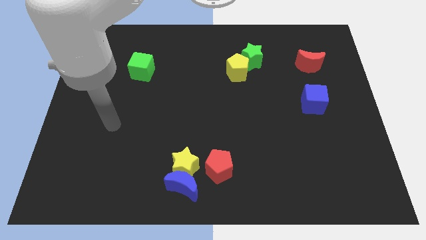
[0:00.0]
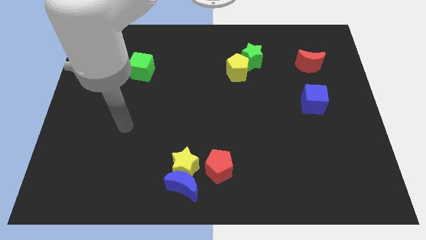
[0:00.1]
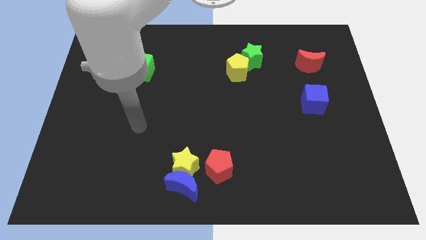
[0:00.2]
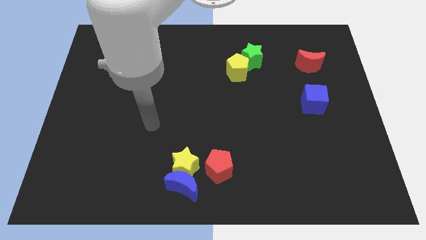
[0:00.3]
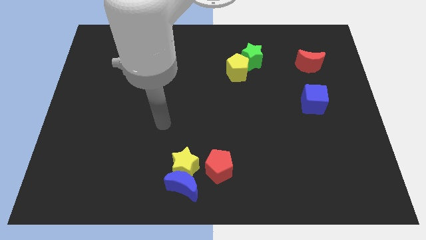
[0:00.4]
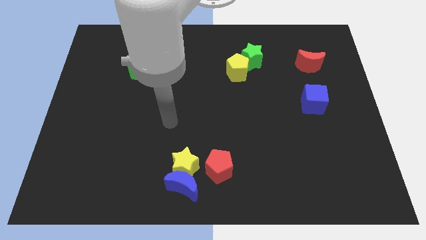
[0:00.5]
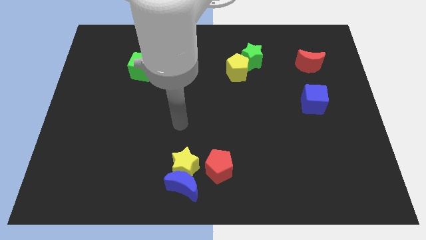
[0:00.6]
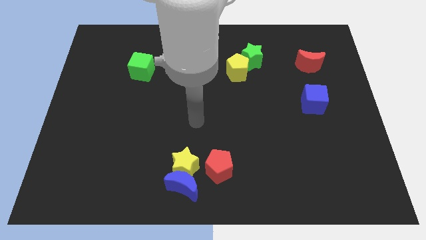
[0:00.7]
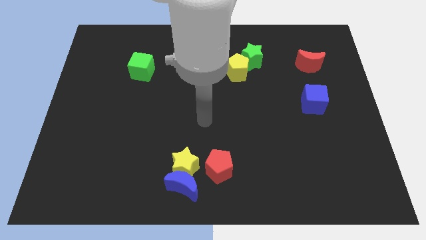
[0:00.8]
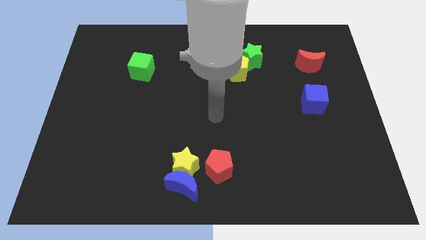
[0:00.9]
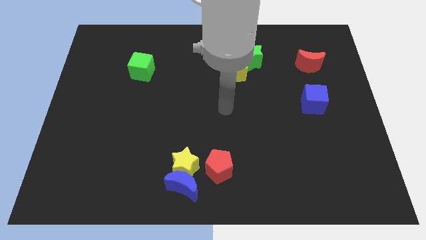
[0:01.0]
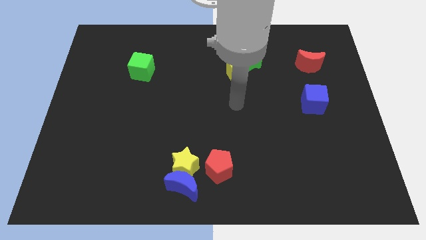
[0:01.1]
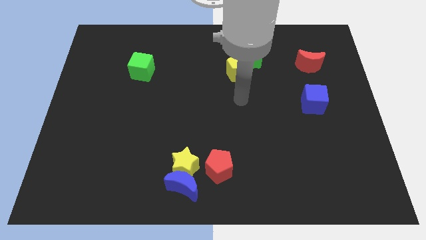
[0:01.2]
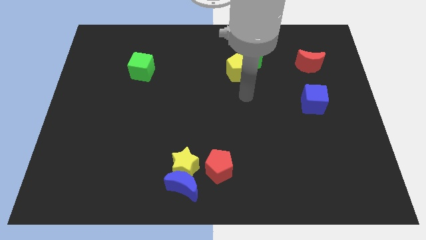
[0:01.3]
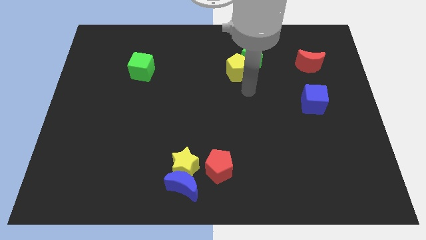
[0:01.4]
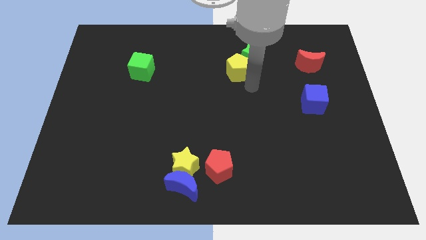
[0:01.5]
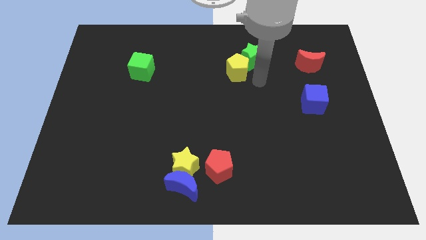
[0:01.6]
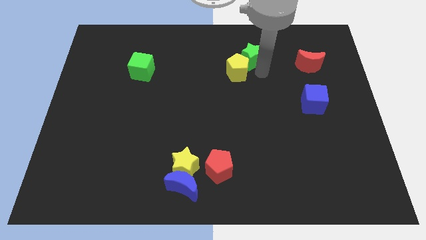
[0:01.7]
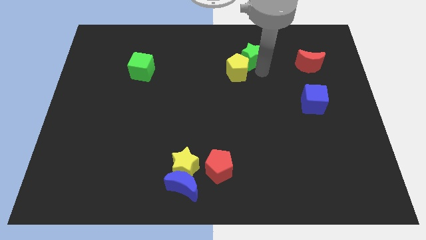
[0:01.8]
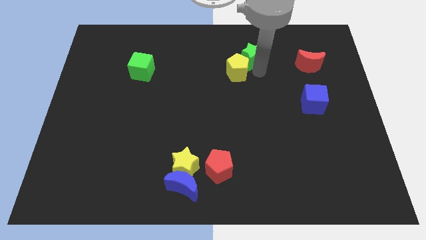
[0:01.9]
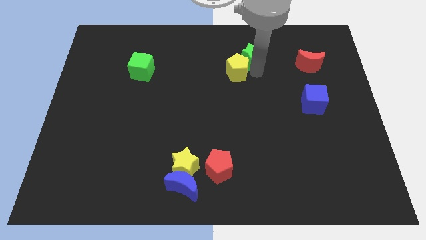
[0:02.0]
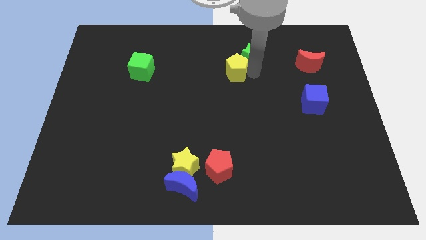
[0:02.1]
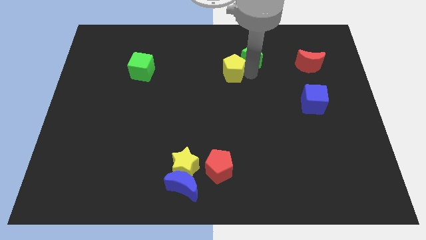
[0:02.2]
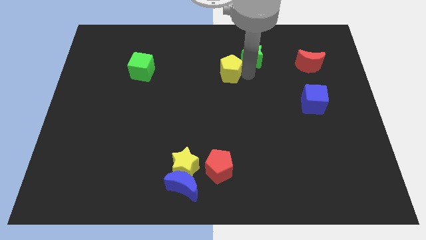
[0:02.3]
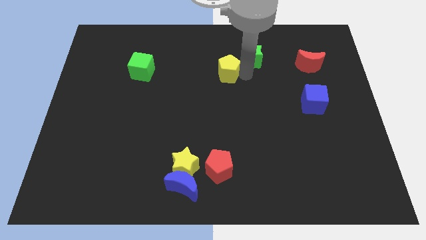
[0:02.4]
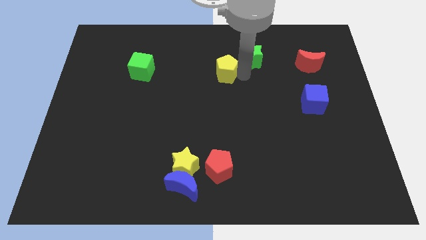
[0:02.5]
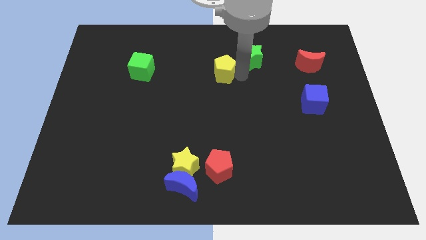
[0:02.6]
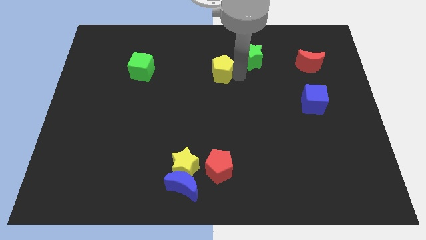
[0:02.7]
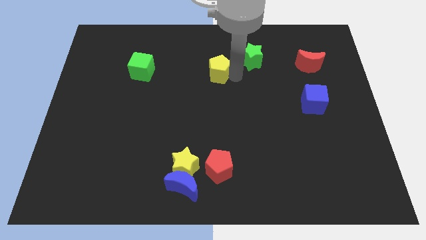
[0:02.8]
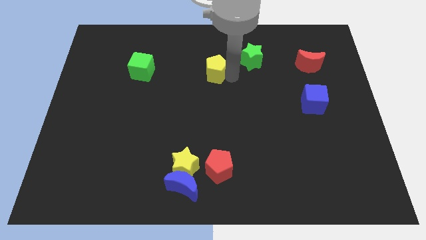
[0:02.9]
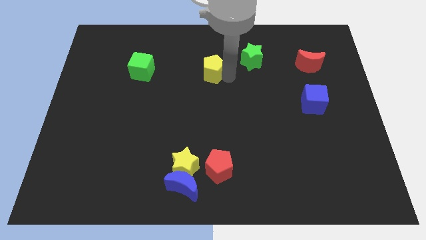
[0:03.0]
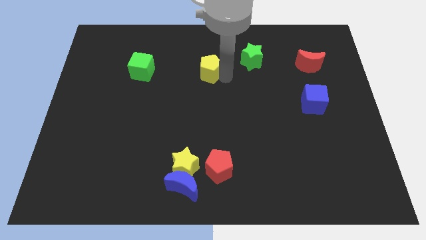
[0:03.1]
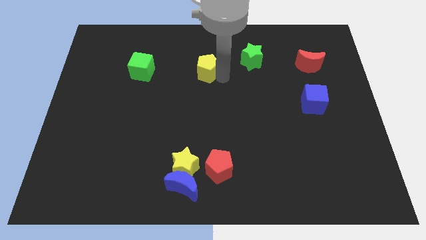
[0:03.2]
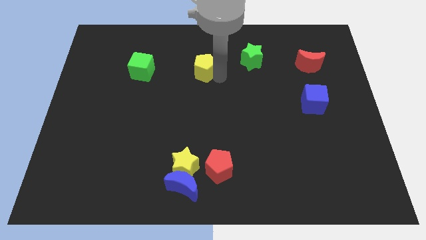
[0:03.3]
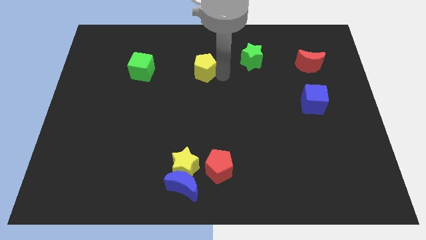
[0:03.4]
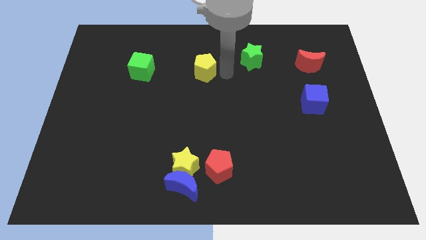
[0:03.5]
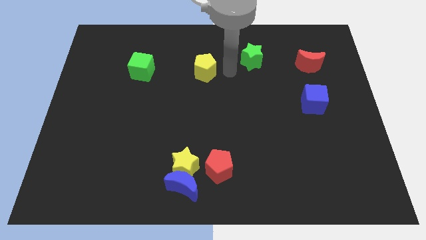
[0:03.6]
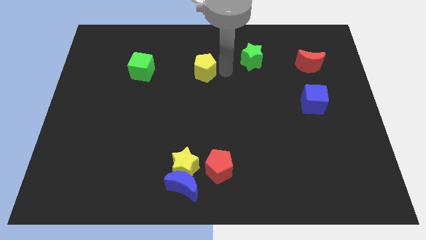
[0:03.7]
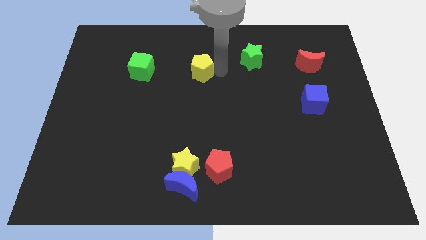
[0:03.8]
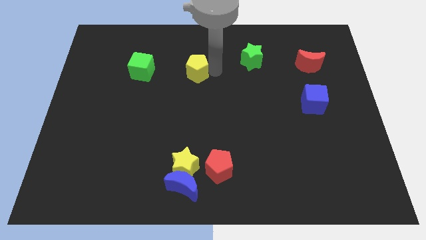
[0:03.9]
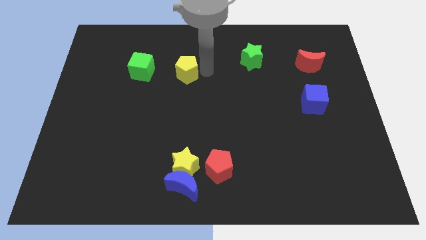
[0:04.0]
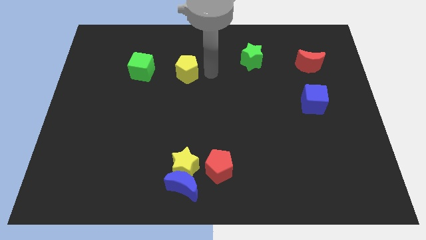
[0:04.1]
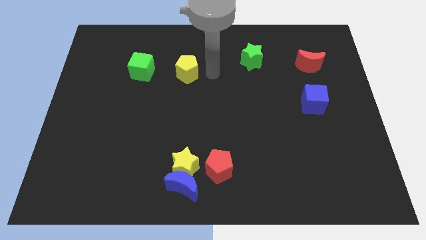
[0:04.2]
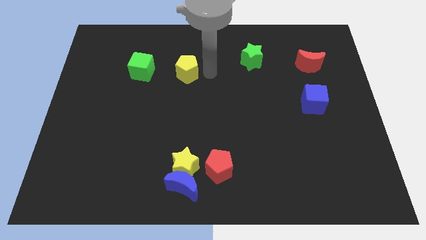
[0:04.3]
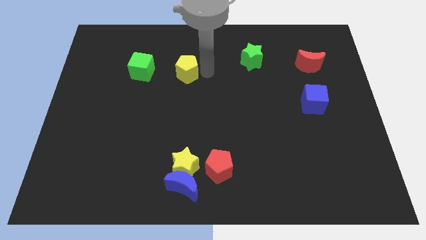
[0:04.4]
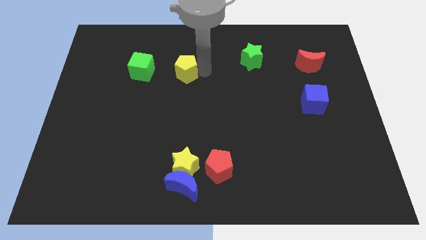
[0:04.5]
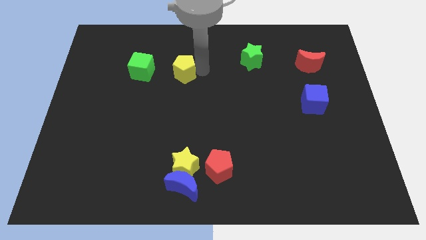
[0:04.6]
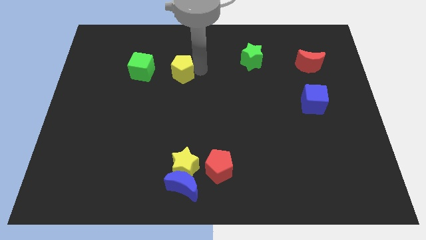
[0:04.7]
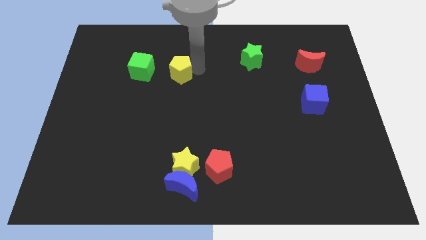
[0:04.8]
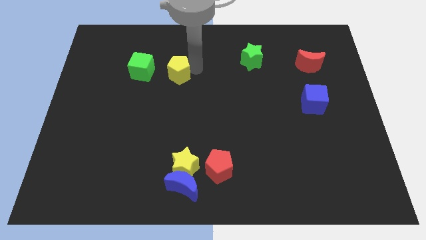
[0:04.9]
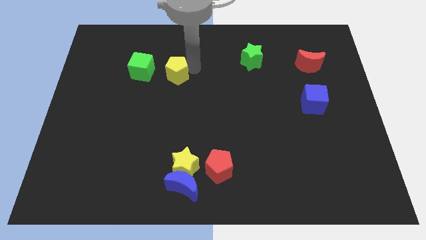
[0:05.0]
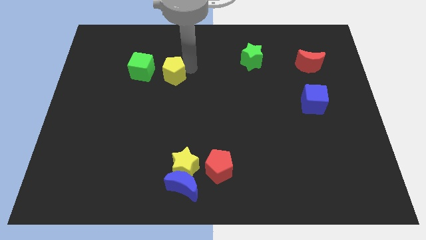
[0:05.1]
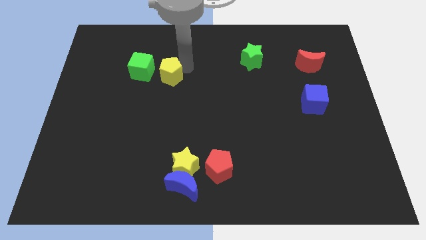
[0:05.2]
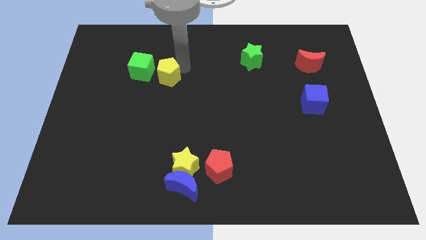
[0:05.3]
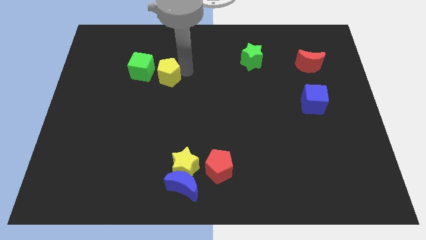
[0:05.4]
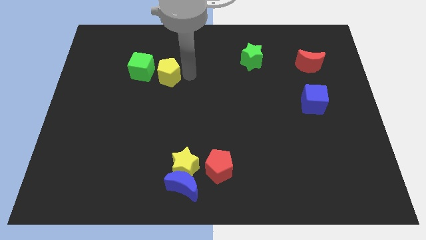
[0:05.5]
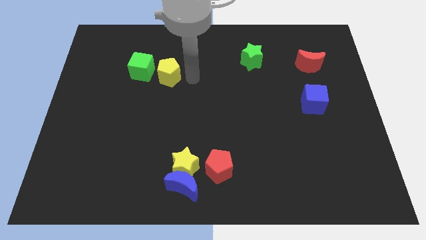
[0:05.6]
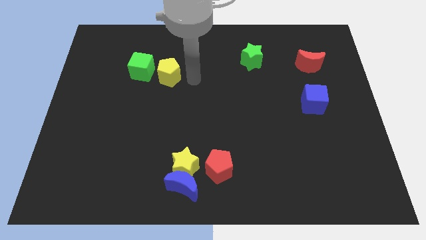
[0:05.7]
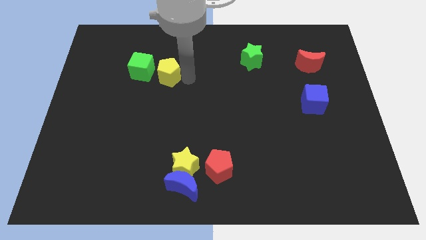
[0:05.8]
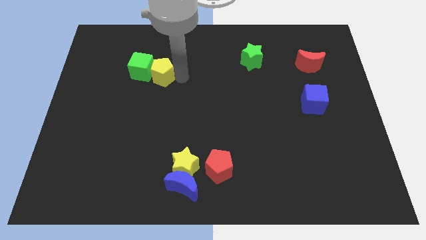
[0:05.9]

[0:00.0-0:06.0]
move the yellow pentagon to the green cube

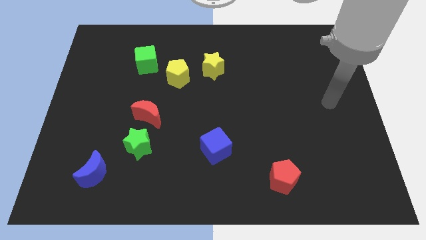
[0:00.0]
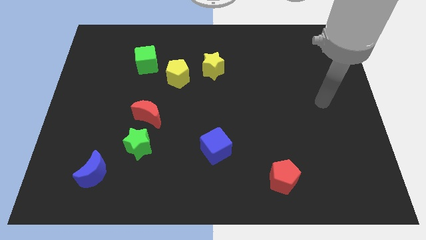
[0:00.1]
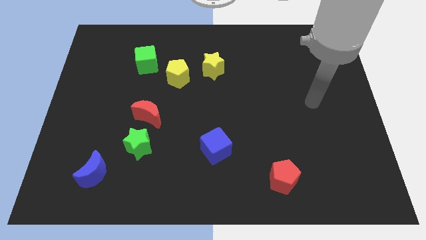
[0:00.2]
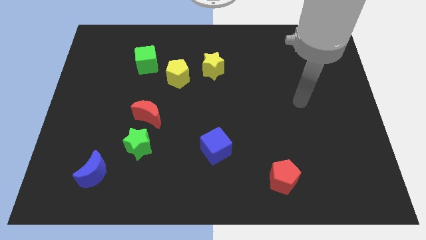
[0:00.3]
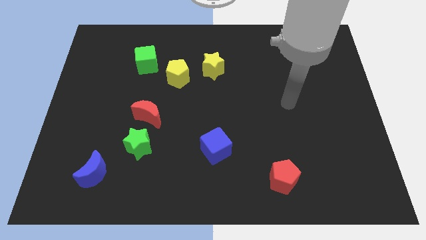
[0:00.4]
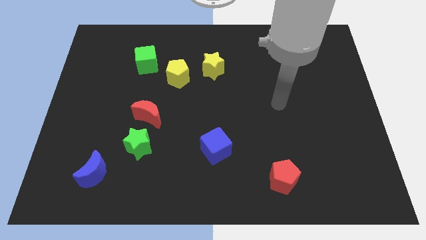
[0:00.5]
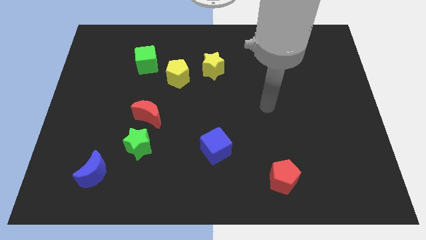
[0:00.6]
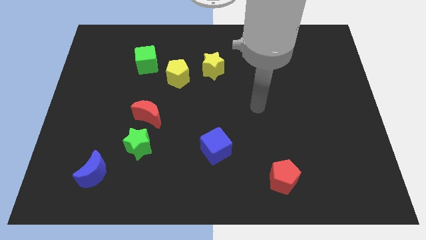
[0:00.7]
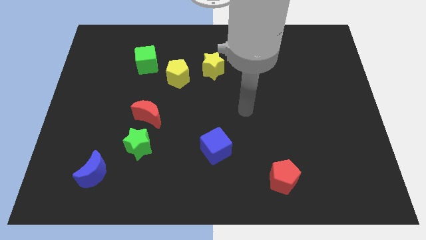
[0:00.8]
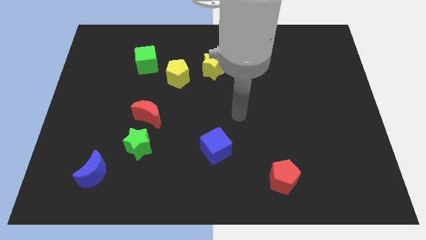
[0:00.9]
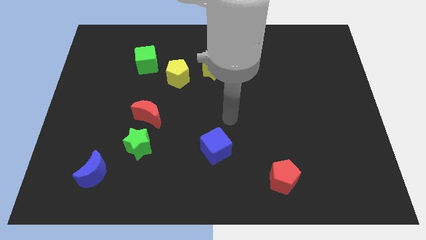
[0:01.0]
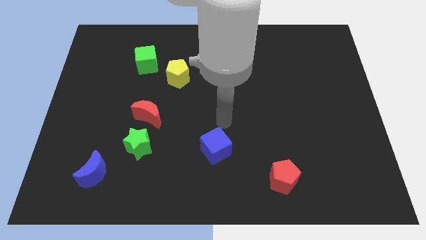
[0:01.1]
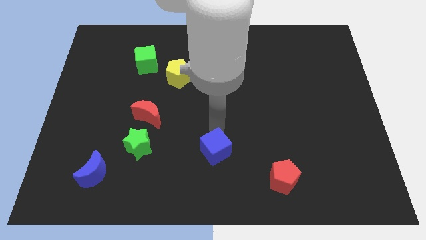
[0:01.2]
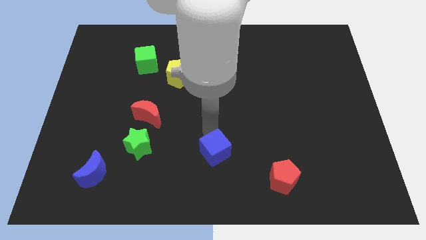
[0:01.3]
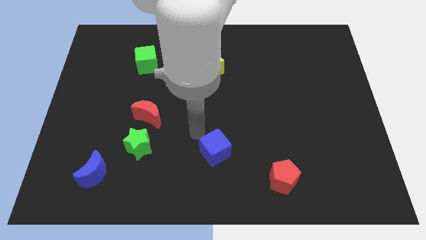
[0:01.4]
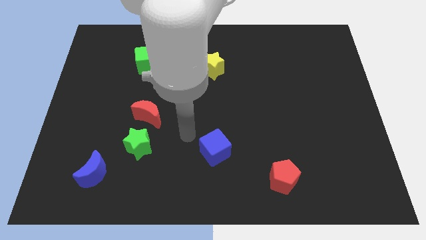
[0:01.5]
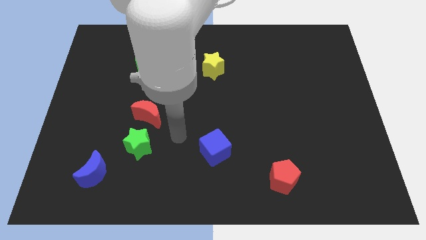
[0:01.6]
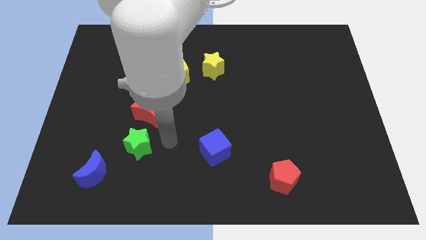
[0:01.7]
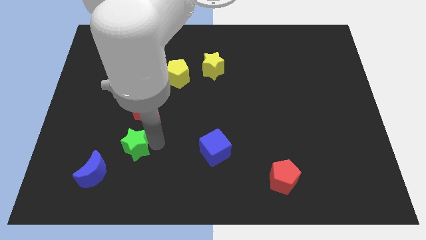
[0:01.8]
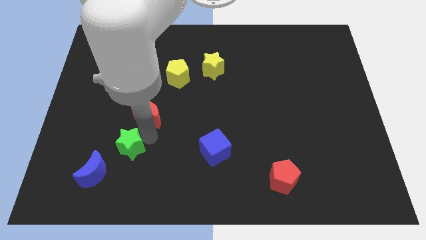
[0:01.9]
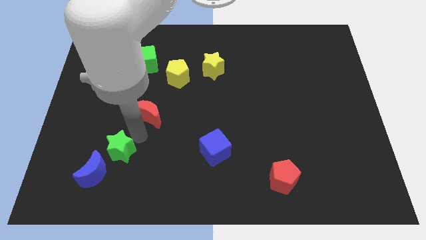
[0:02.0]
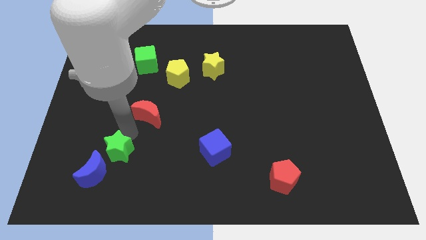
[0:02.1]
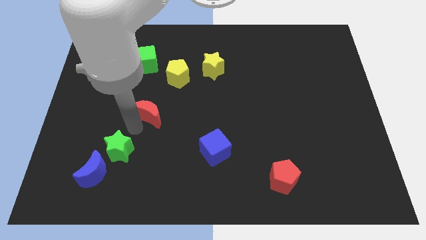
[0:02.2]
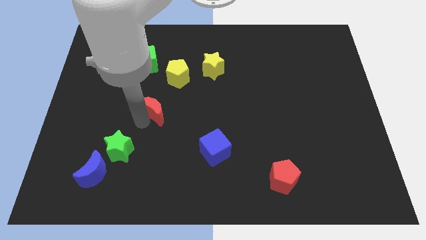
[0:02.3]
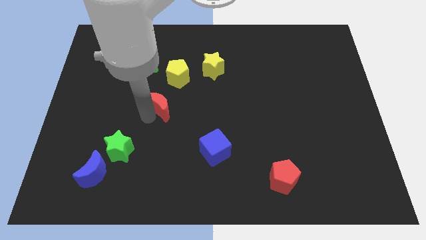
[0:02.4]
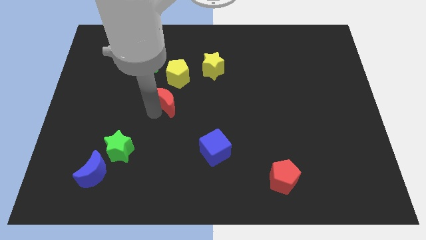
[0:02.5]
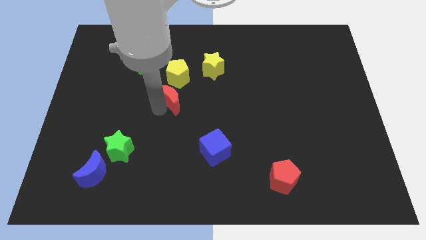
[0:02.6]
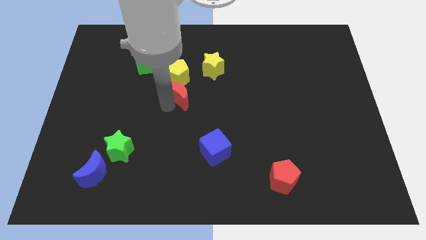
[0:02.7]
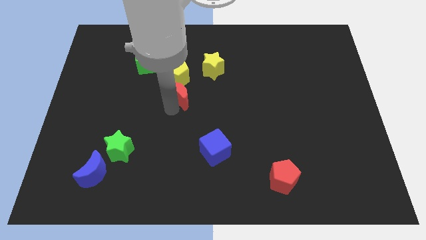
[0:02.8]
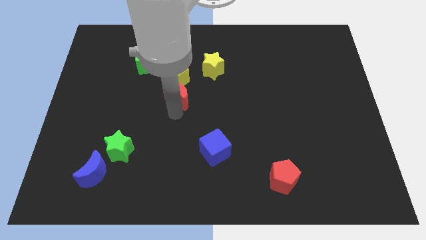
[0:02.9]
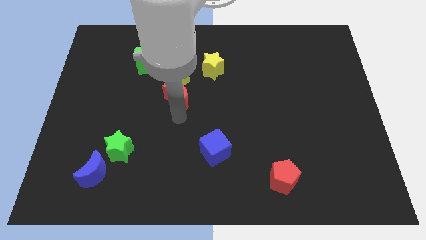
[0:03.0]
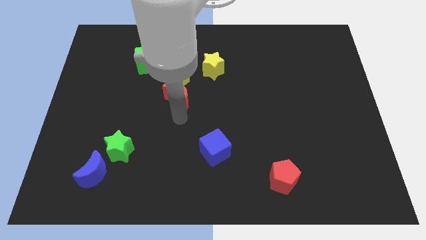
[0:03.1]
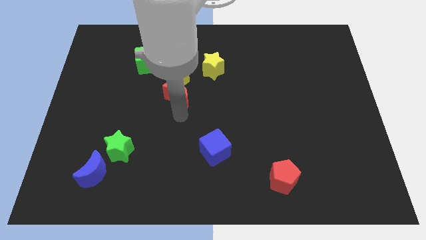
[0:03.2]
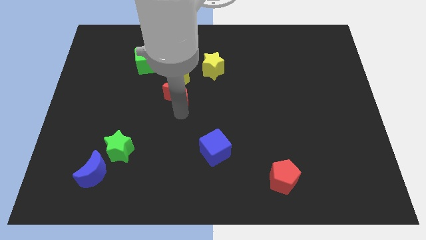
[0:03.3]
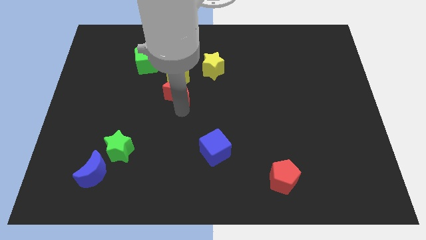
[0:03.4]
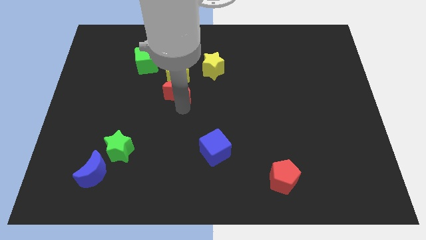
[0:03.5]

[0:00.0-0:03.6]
slide the red moon to the yellow pentagon
